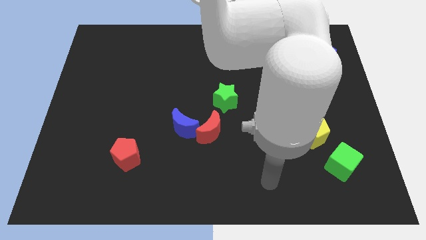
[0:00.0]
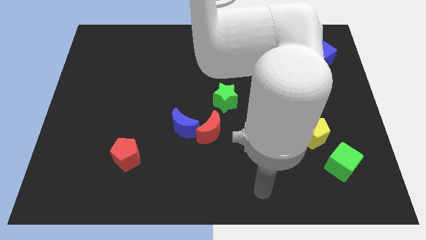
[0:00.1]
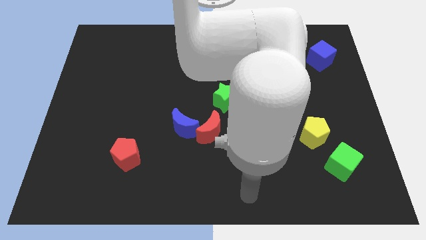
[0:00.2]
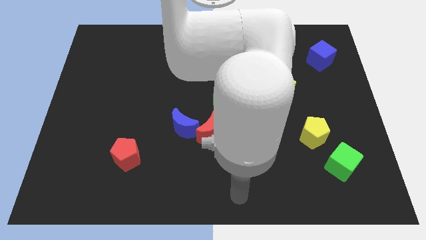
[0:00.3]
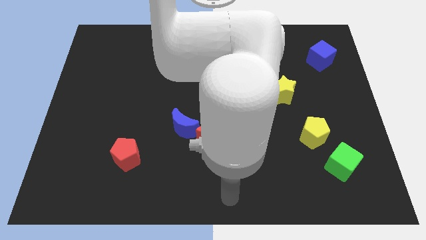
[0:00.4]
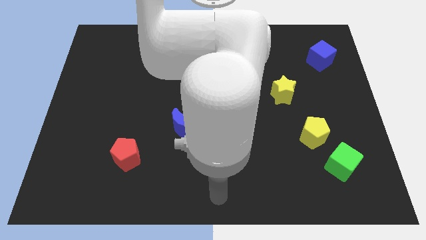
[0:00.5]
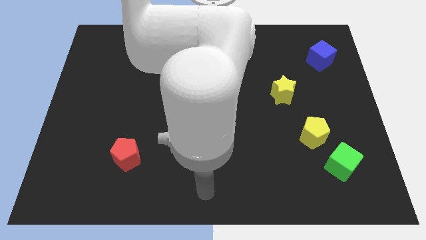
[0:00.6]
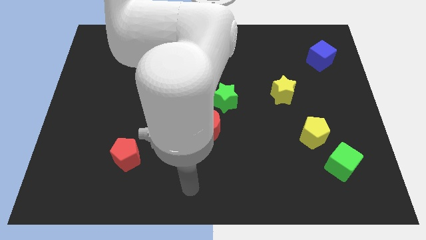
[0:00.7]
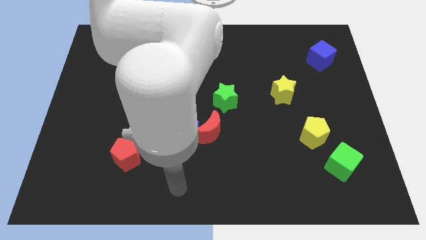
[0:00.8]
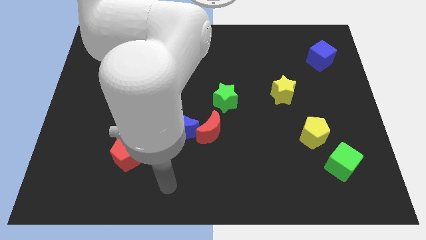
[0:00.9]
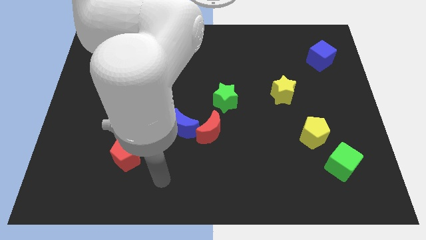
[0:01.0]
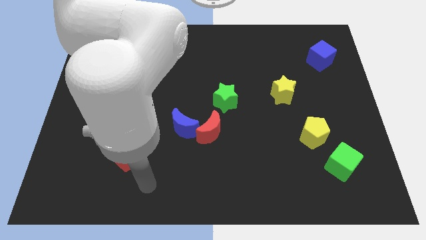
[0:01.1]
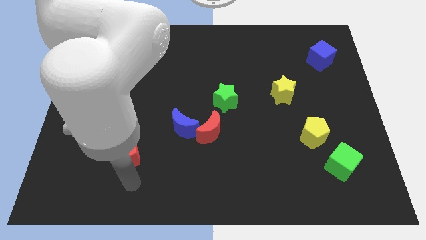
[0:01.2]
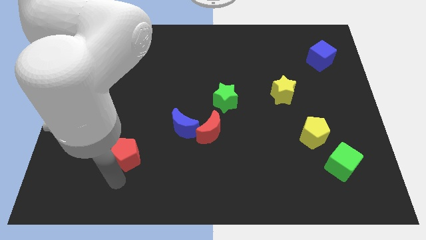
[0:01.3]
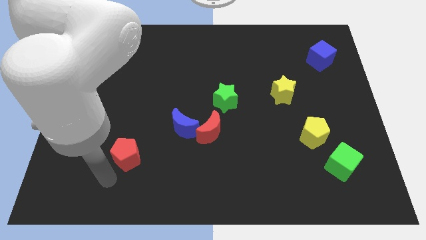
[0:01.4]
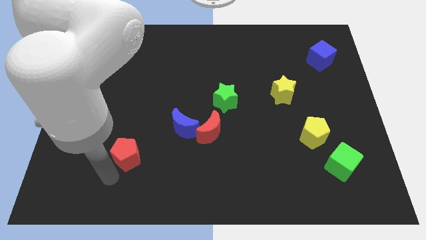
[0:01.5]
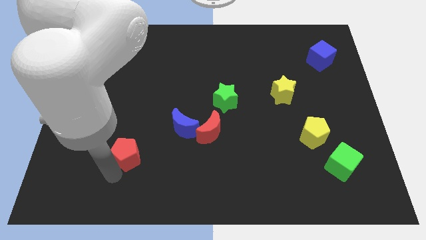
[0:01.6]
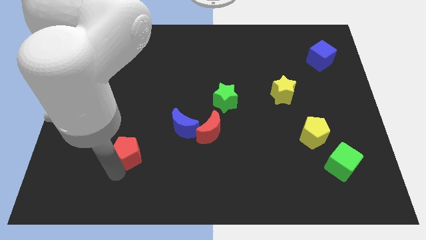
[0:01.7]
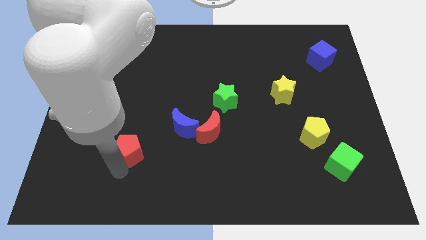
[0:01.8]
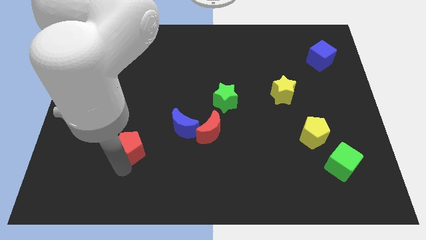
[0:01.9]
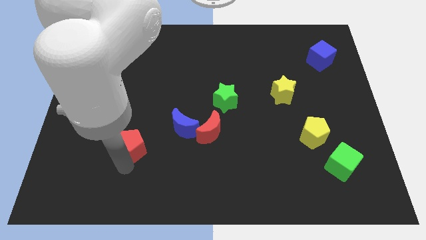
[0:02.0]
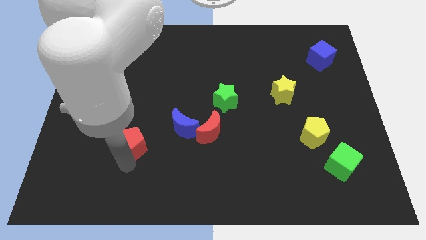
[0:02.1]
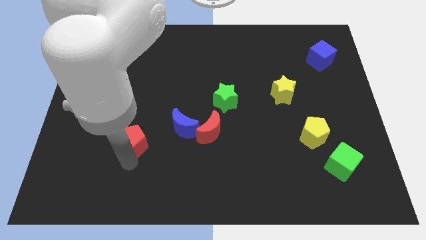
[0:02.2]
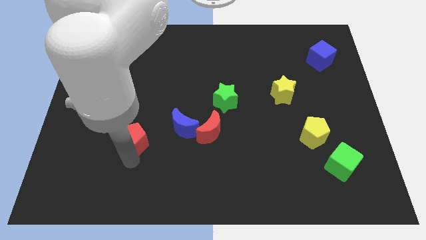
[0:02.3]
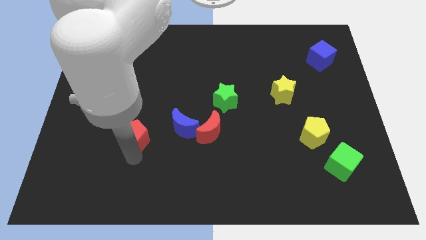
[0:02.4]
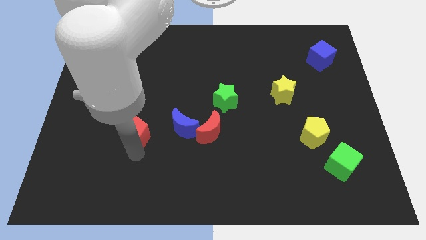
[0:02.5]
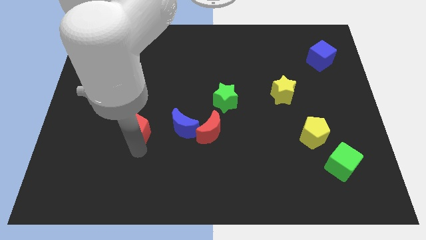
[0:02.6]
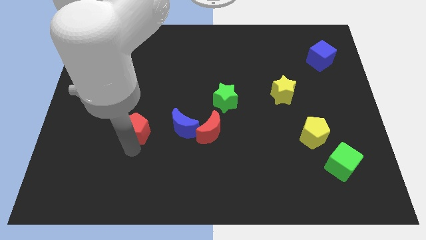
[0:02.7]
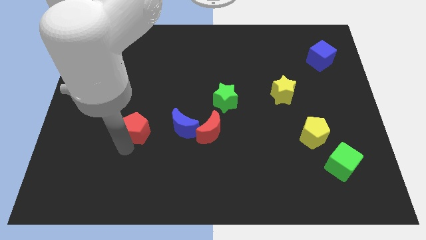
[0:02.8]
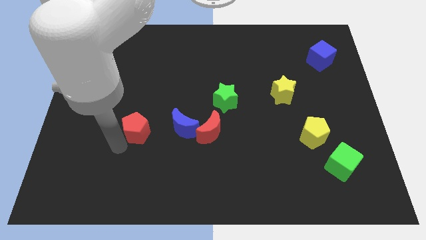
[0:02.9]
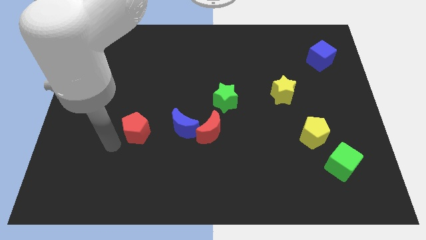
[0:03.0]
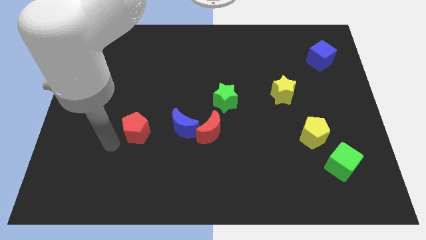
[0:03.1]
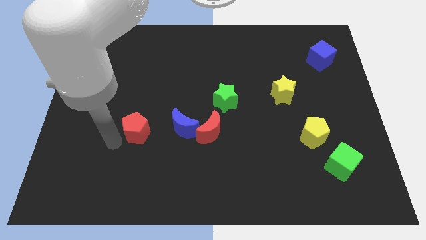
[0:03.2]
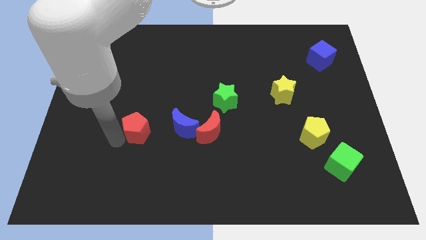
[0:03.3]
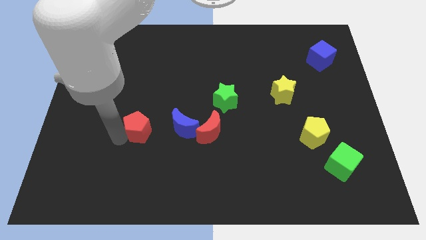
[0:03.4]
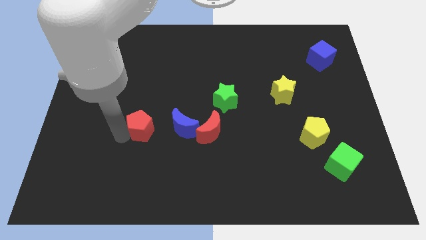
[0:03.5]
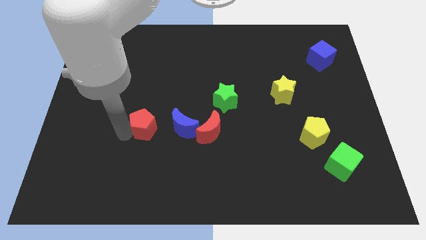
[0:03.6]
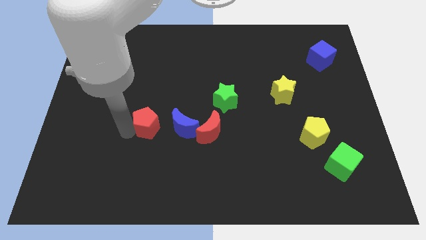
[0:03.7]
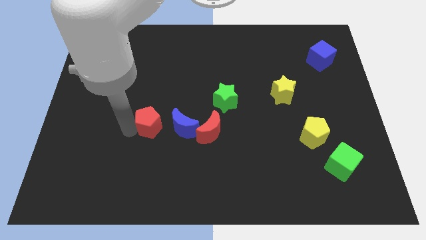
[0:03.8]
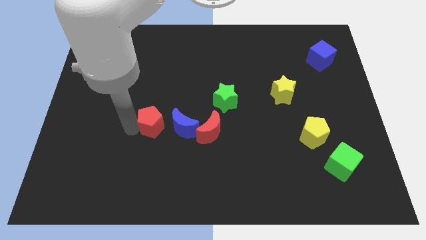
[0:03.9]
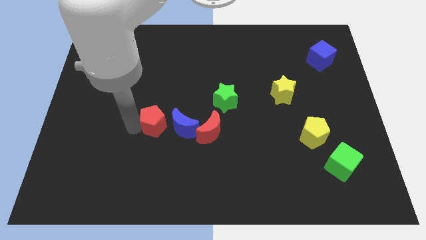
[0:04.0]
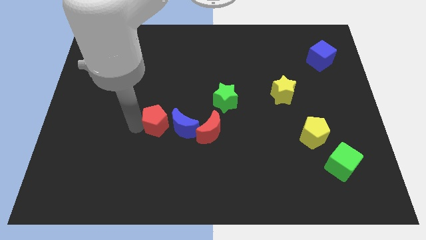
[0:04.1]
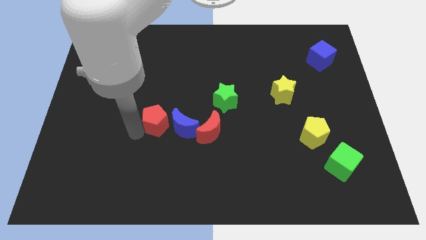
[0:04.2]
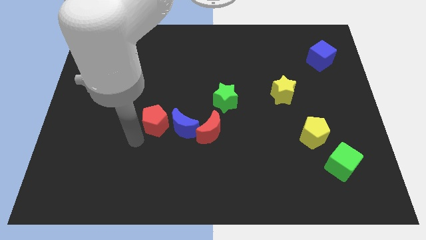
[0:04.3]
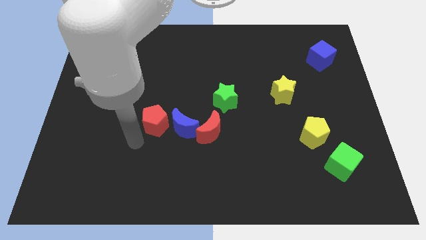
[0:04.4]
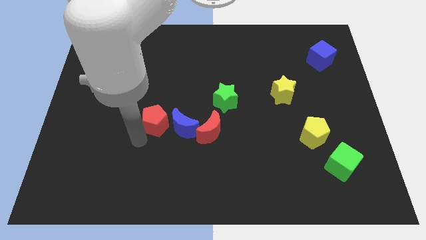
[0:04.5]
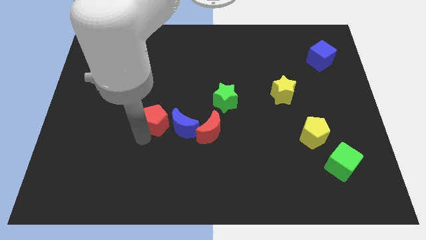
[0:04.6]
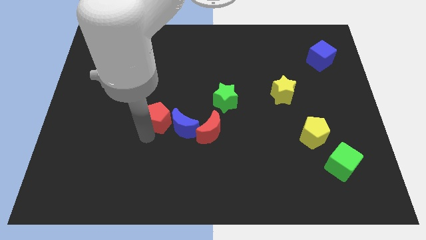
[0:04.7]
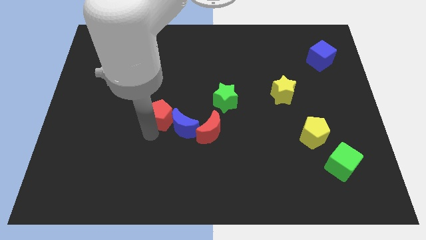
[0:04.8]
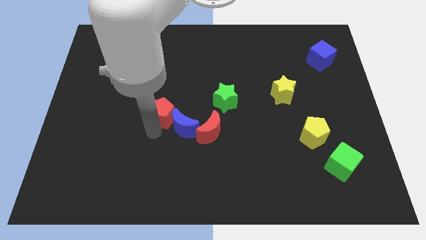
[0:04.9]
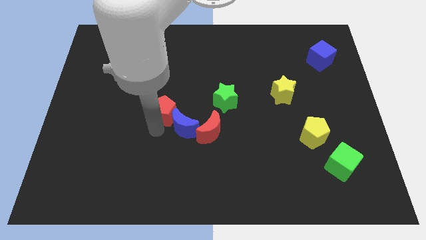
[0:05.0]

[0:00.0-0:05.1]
move the red pentagon left of the green star

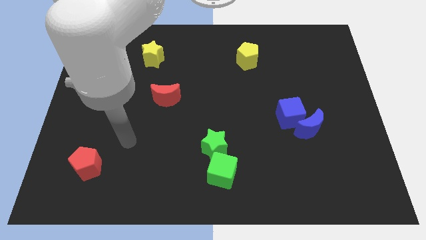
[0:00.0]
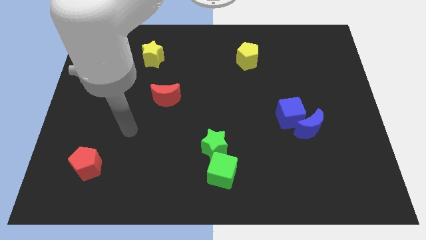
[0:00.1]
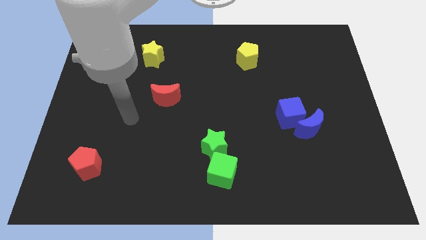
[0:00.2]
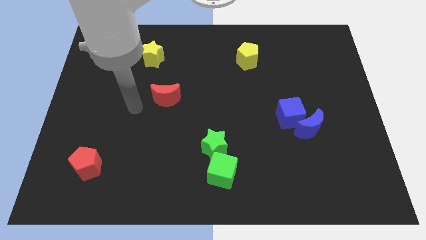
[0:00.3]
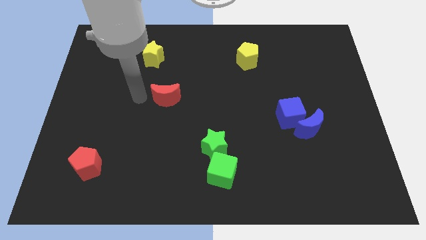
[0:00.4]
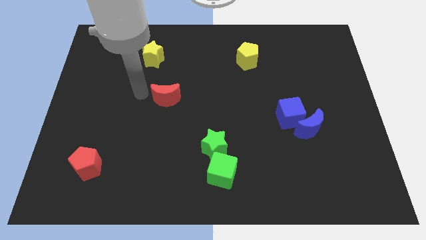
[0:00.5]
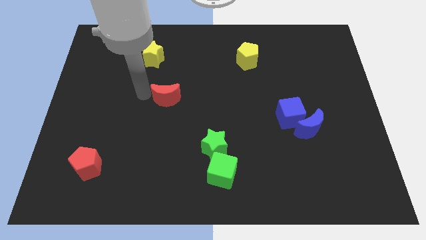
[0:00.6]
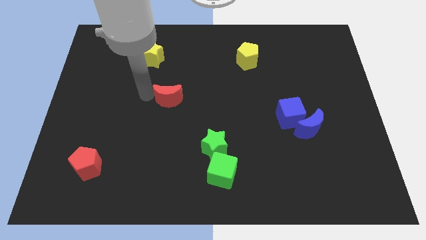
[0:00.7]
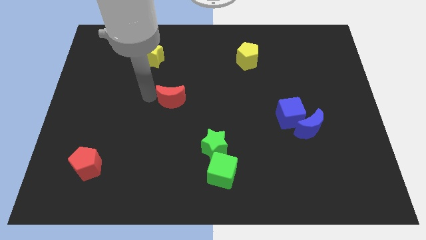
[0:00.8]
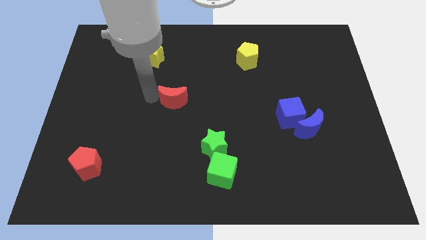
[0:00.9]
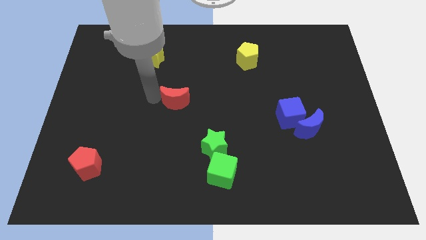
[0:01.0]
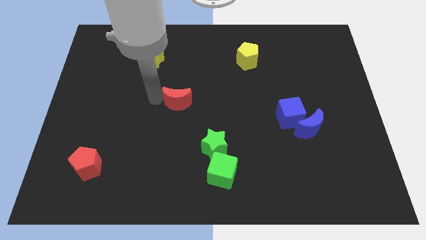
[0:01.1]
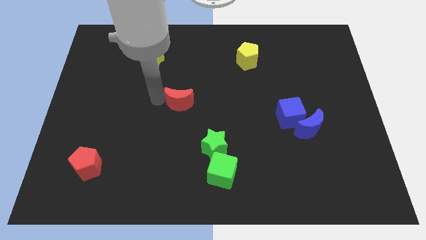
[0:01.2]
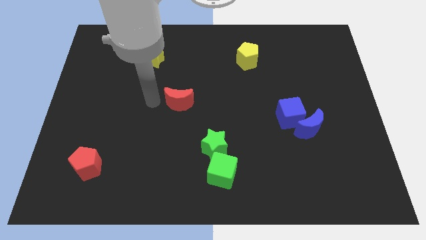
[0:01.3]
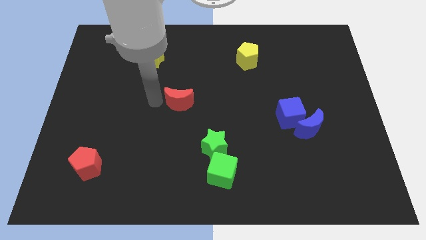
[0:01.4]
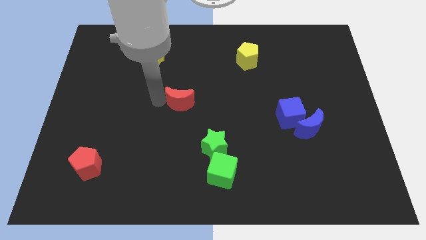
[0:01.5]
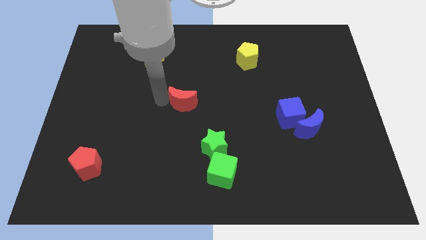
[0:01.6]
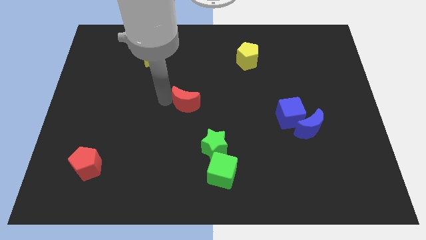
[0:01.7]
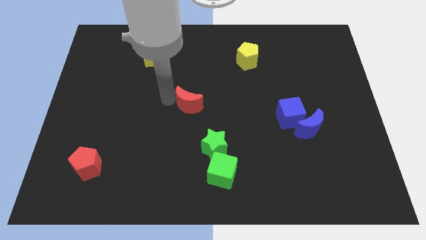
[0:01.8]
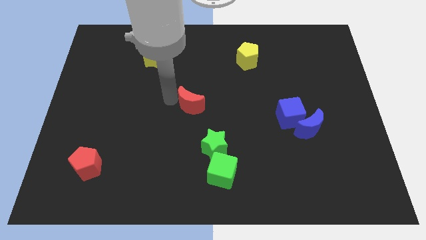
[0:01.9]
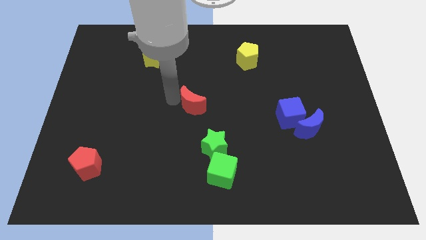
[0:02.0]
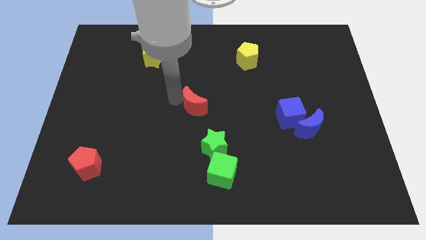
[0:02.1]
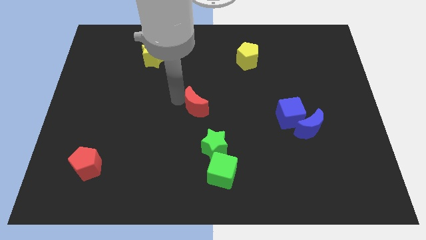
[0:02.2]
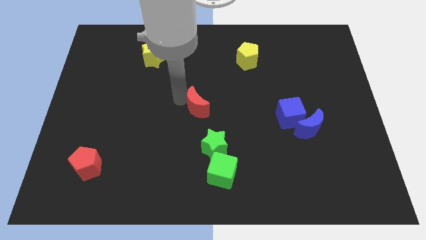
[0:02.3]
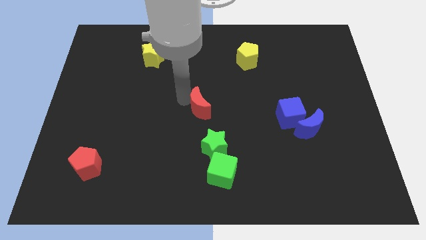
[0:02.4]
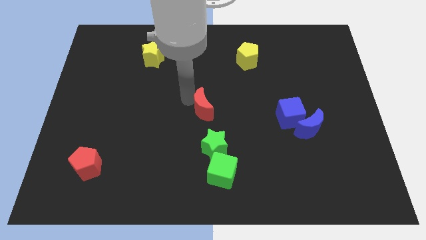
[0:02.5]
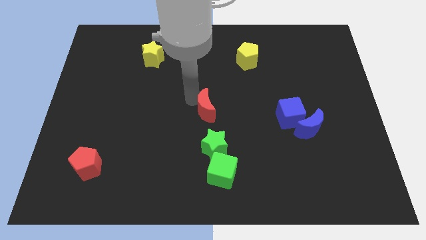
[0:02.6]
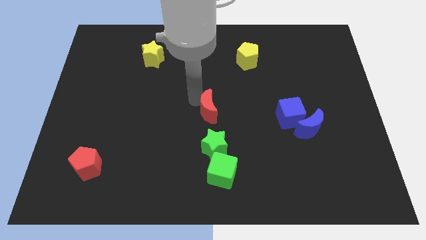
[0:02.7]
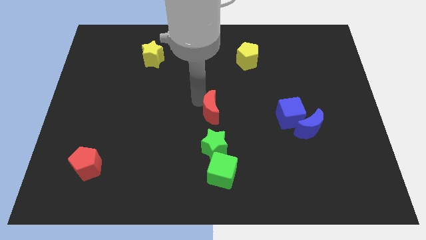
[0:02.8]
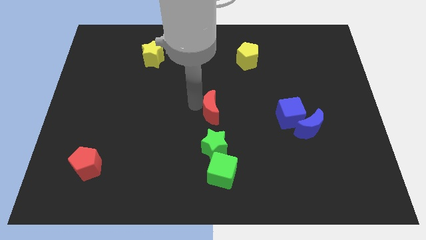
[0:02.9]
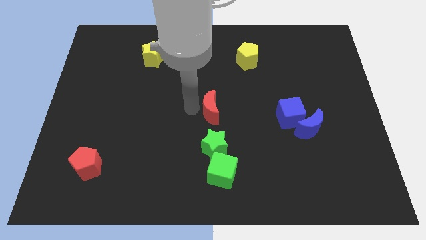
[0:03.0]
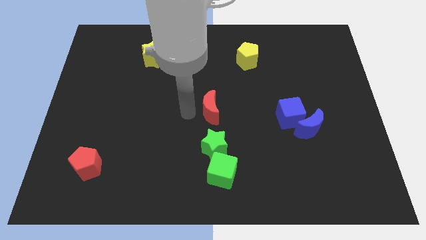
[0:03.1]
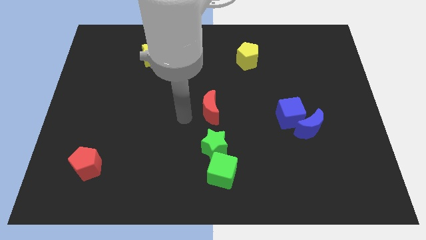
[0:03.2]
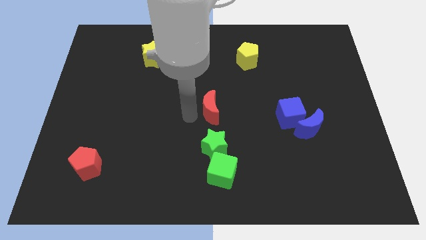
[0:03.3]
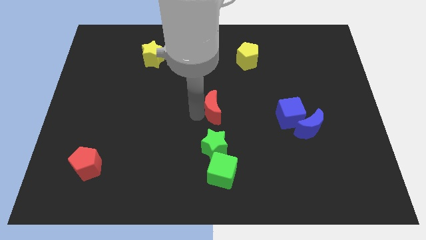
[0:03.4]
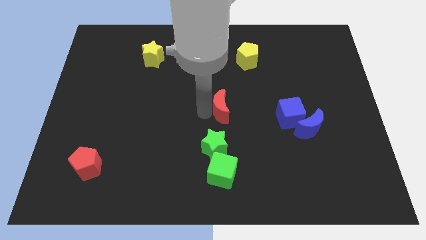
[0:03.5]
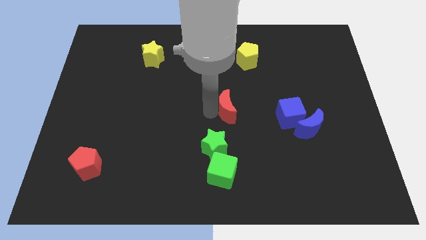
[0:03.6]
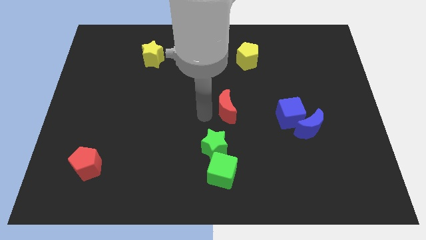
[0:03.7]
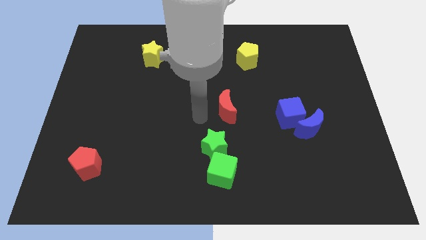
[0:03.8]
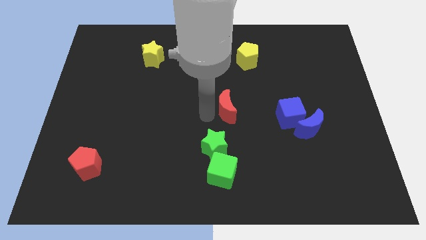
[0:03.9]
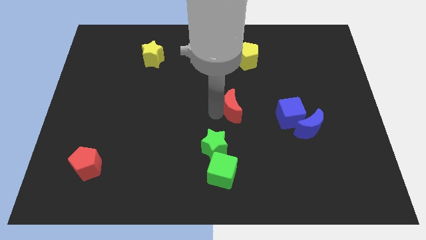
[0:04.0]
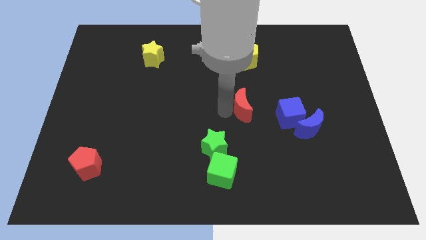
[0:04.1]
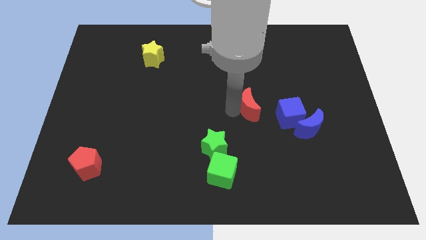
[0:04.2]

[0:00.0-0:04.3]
push the red moon diagonally up and to the left of the blue cube
